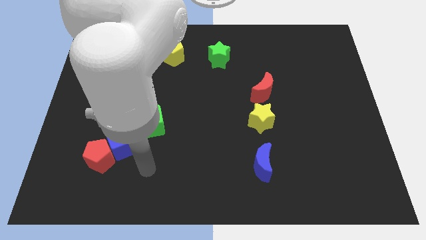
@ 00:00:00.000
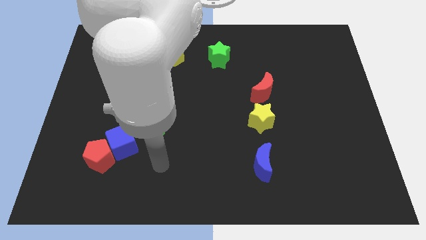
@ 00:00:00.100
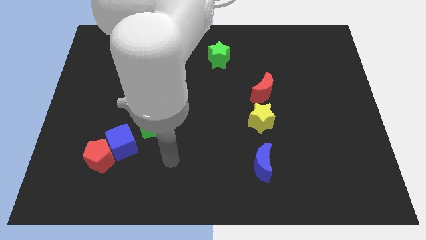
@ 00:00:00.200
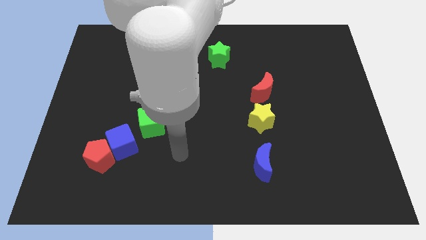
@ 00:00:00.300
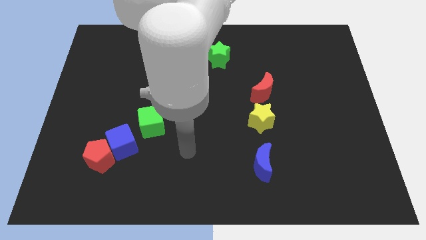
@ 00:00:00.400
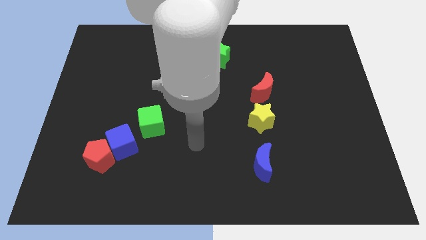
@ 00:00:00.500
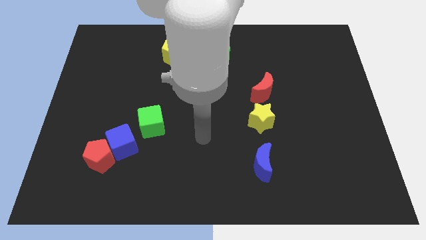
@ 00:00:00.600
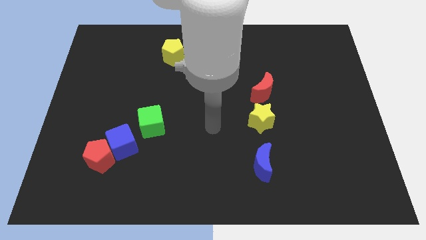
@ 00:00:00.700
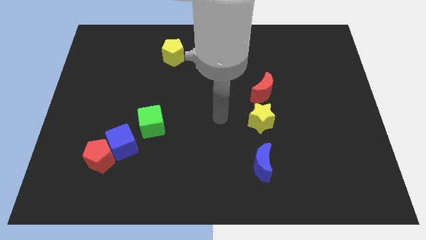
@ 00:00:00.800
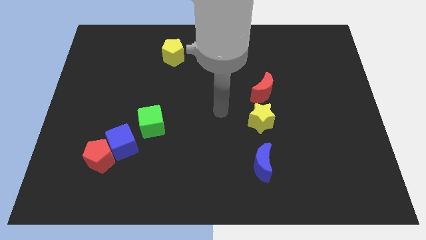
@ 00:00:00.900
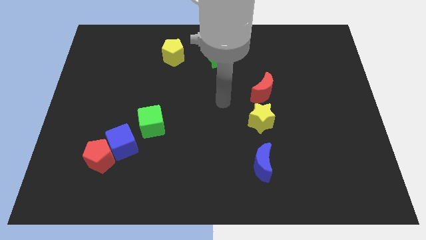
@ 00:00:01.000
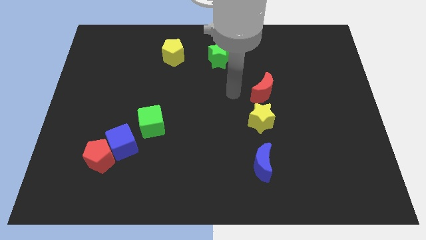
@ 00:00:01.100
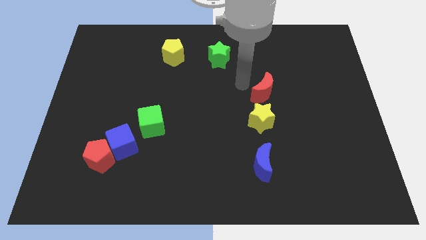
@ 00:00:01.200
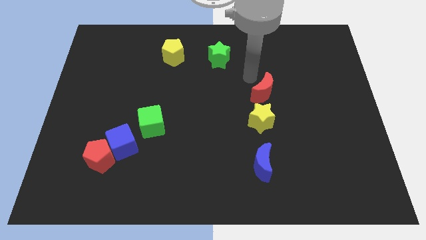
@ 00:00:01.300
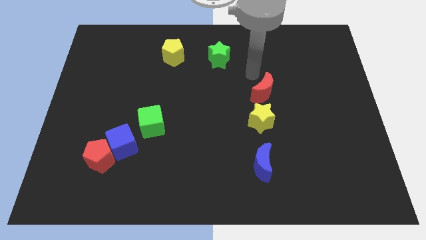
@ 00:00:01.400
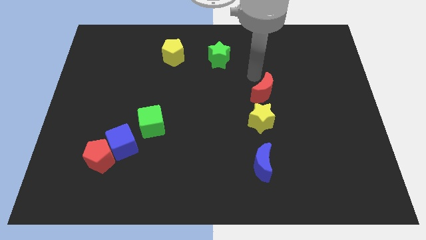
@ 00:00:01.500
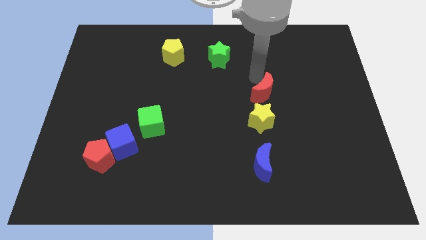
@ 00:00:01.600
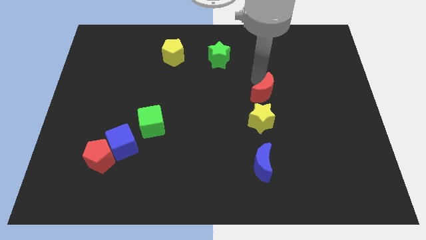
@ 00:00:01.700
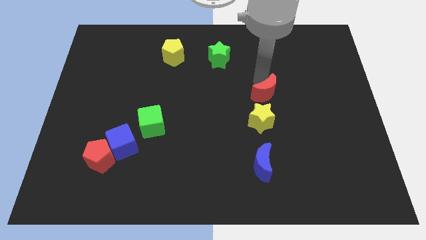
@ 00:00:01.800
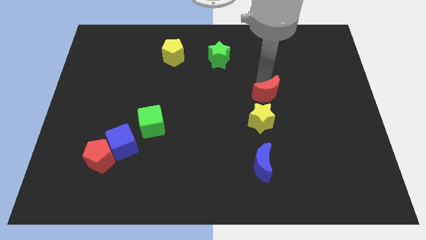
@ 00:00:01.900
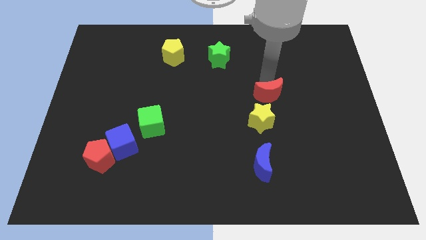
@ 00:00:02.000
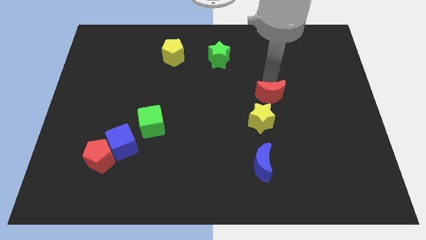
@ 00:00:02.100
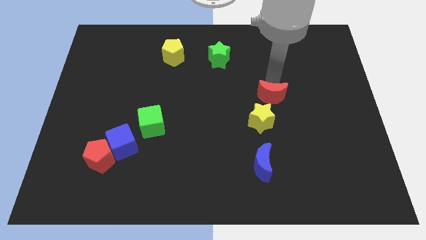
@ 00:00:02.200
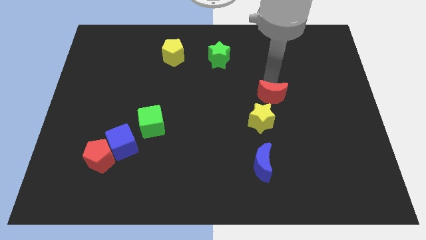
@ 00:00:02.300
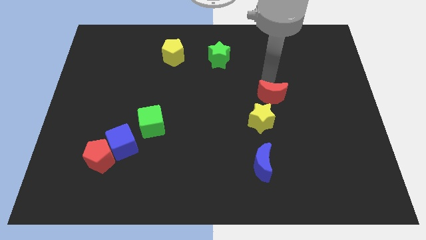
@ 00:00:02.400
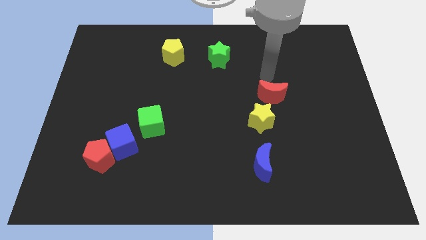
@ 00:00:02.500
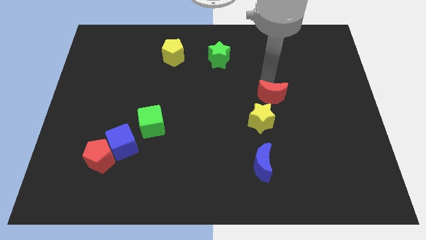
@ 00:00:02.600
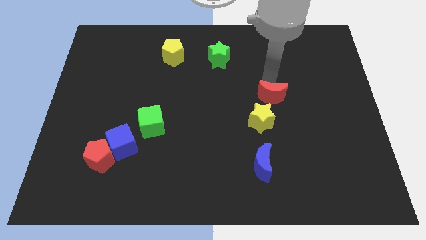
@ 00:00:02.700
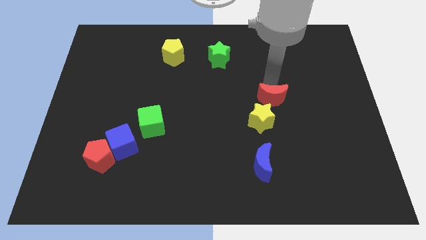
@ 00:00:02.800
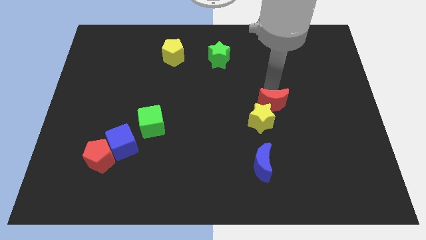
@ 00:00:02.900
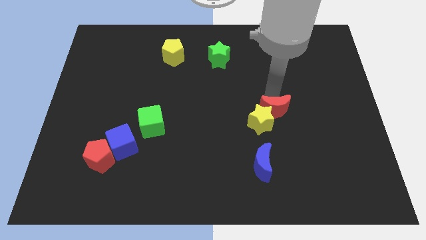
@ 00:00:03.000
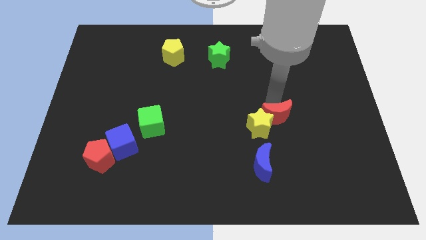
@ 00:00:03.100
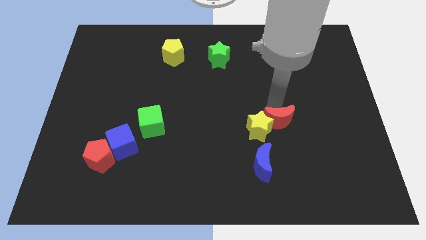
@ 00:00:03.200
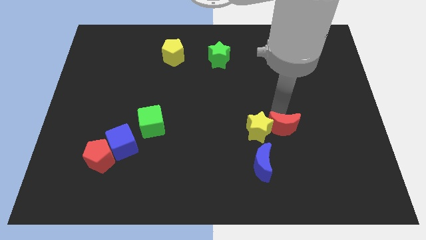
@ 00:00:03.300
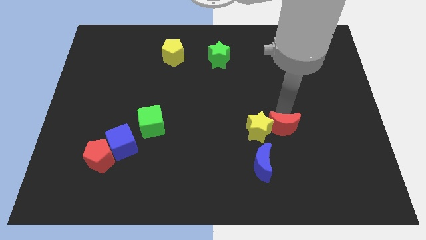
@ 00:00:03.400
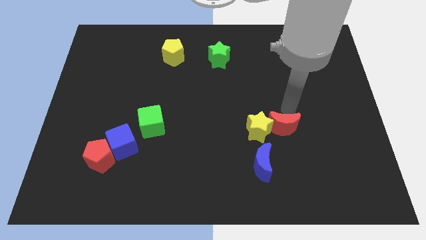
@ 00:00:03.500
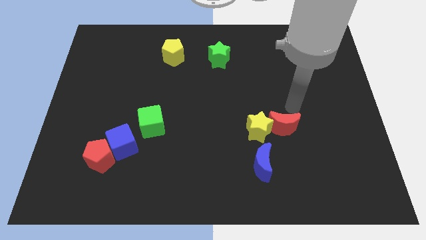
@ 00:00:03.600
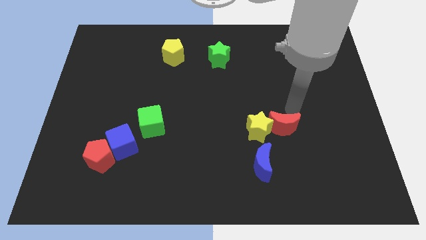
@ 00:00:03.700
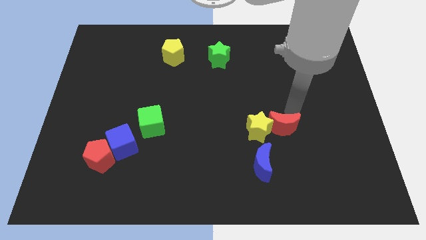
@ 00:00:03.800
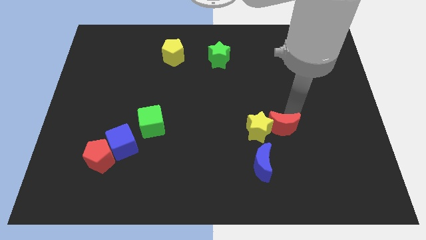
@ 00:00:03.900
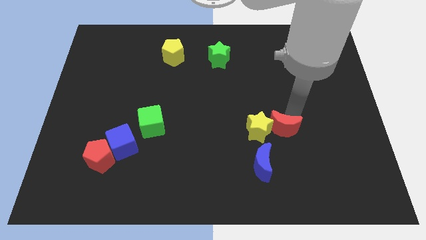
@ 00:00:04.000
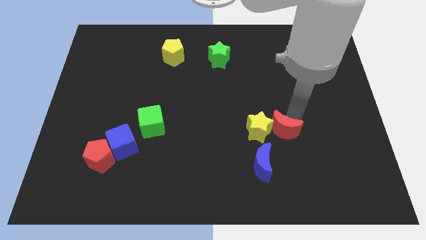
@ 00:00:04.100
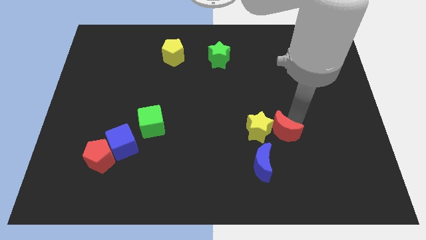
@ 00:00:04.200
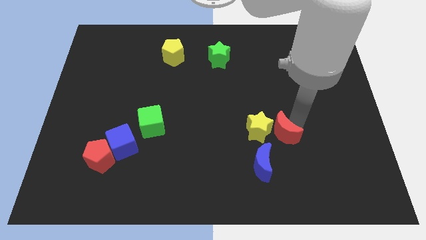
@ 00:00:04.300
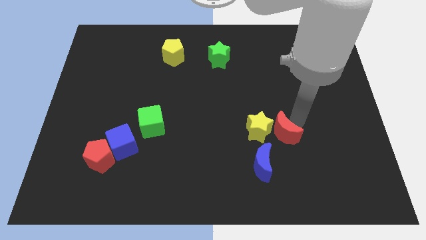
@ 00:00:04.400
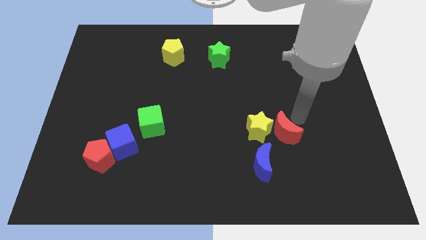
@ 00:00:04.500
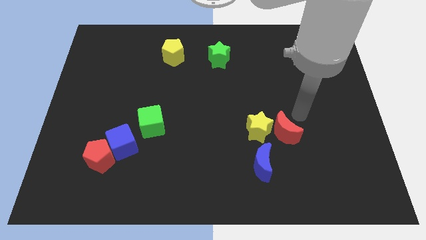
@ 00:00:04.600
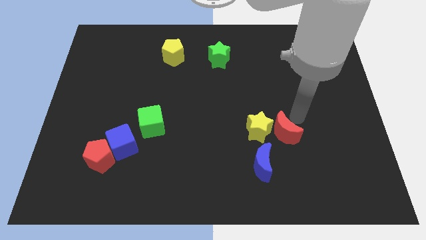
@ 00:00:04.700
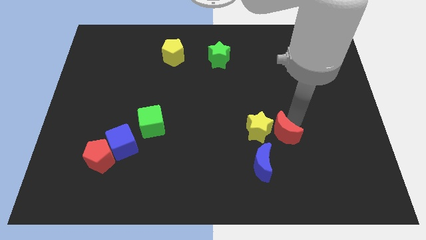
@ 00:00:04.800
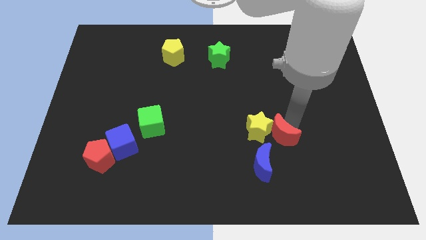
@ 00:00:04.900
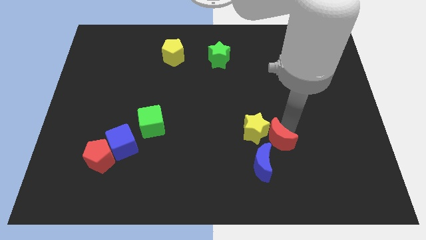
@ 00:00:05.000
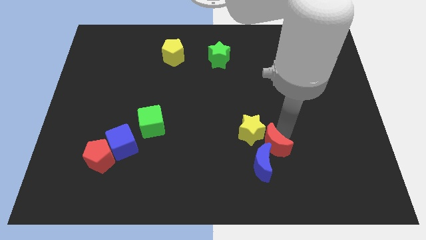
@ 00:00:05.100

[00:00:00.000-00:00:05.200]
slide the red moon to the blue moon

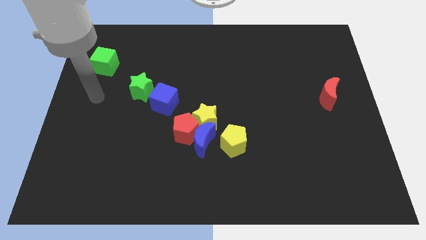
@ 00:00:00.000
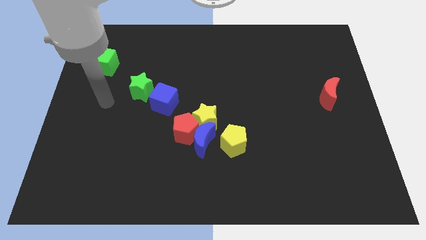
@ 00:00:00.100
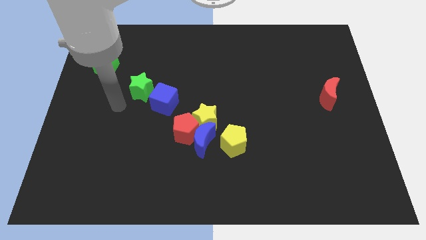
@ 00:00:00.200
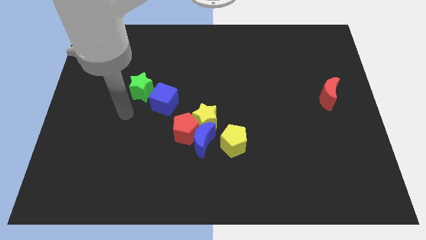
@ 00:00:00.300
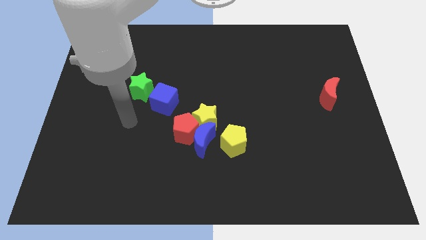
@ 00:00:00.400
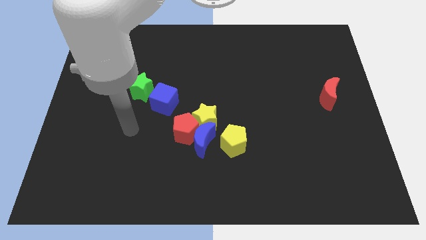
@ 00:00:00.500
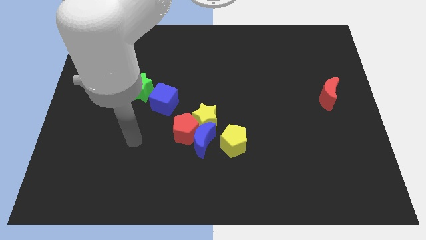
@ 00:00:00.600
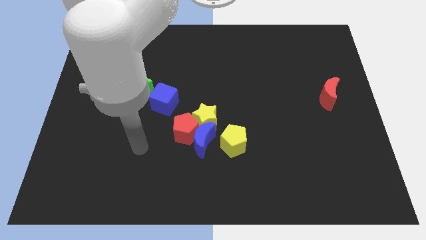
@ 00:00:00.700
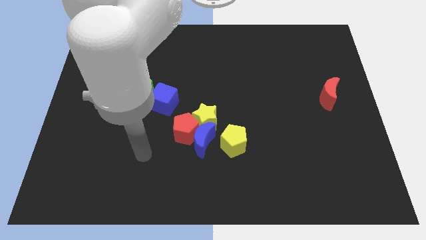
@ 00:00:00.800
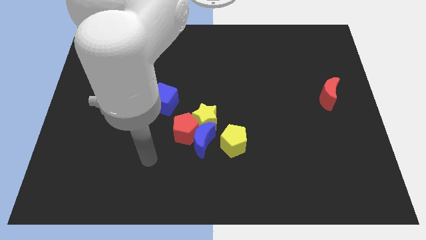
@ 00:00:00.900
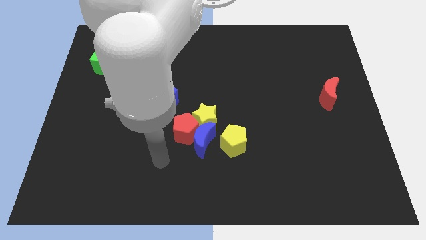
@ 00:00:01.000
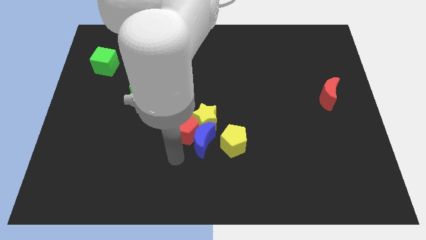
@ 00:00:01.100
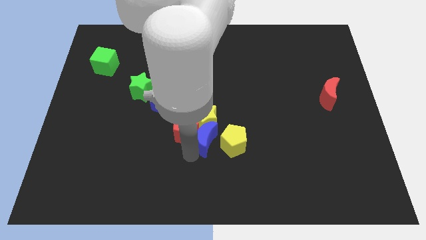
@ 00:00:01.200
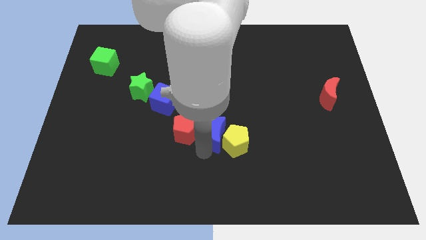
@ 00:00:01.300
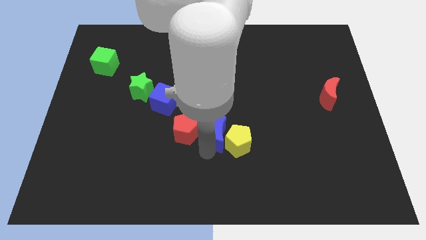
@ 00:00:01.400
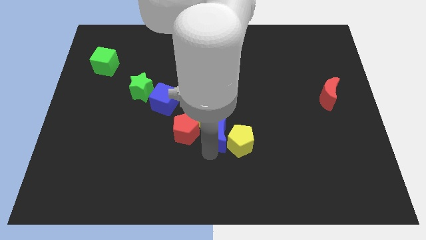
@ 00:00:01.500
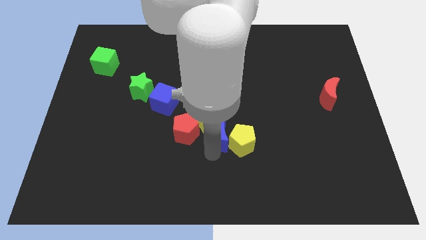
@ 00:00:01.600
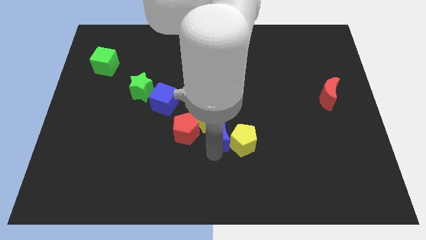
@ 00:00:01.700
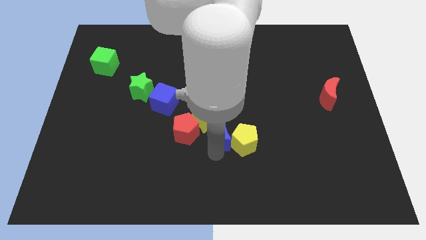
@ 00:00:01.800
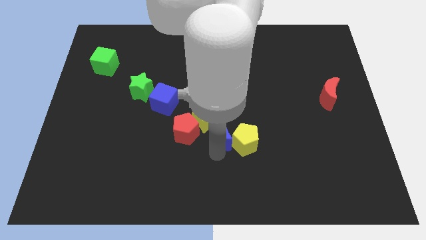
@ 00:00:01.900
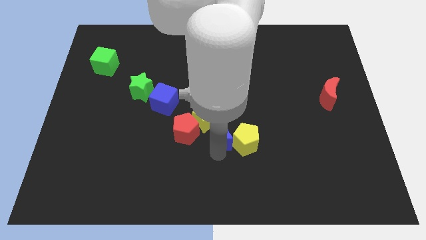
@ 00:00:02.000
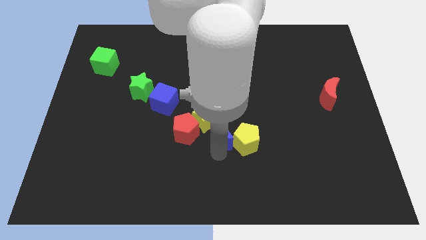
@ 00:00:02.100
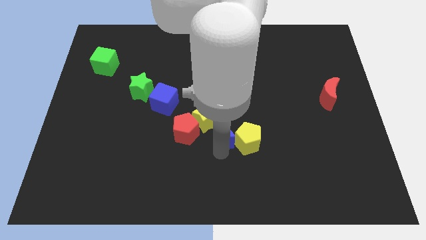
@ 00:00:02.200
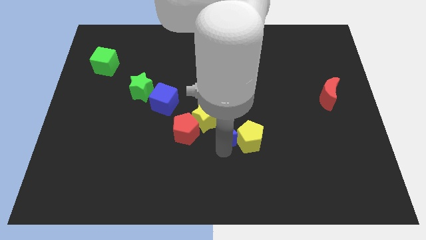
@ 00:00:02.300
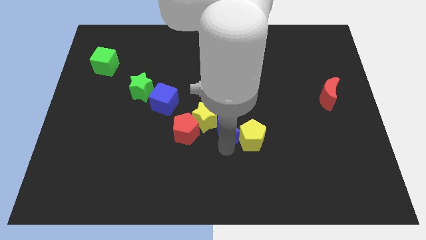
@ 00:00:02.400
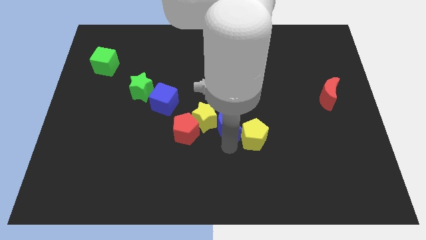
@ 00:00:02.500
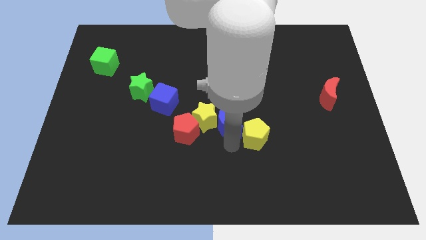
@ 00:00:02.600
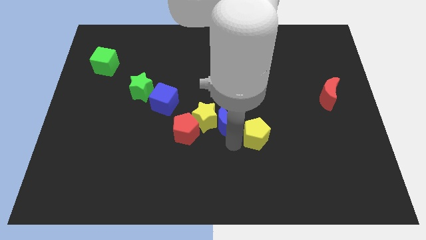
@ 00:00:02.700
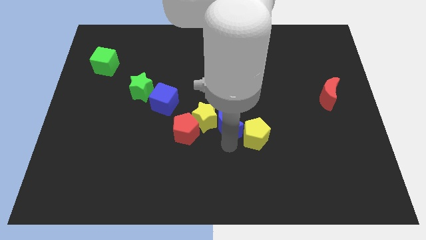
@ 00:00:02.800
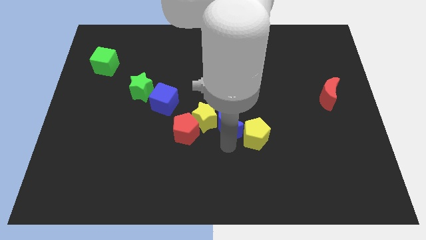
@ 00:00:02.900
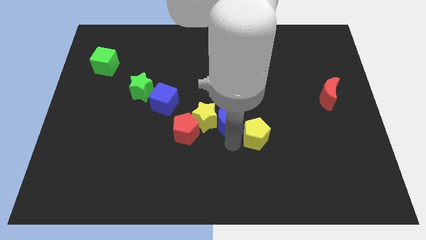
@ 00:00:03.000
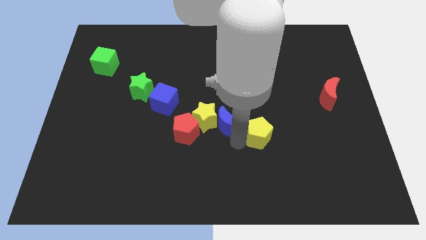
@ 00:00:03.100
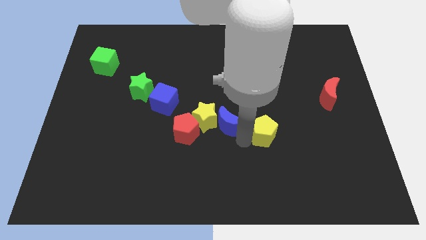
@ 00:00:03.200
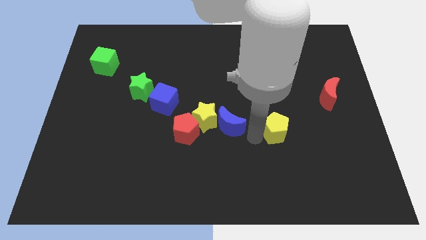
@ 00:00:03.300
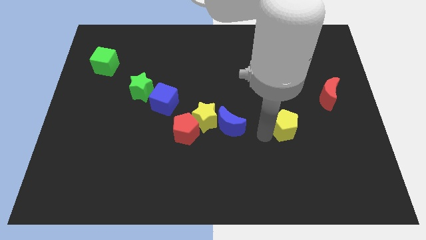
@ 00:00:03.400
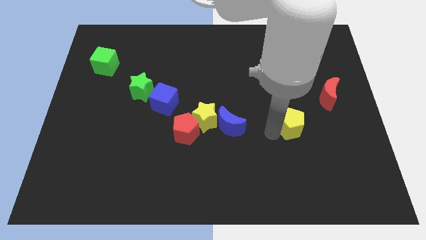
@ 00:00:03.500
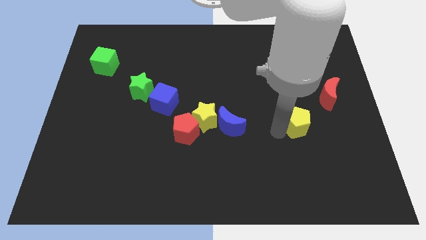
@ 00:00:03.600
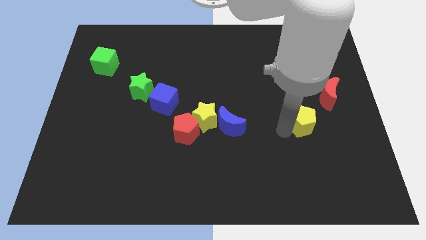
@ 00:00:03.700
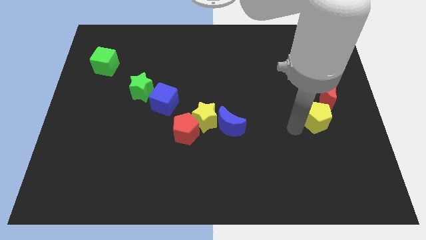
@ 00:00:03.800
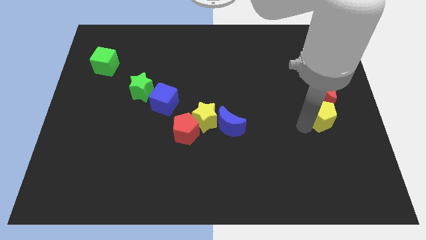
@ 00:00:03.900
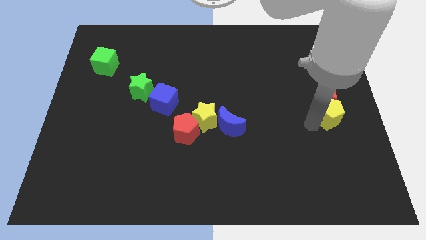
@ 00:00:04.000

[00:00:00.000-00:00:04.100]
move the yellow pentagon next to the red moon
